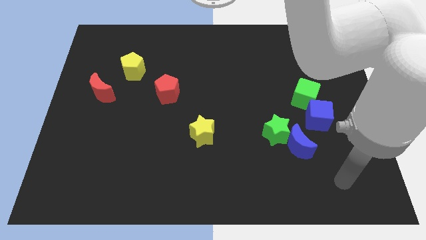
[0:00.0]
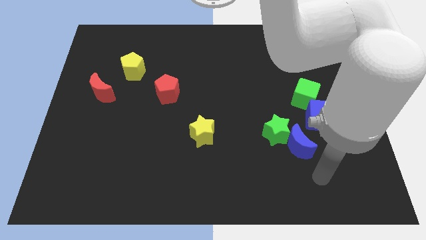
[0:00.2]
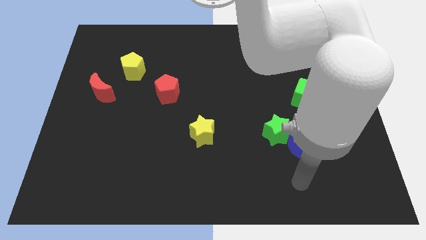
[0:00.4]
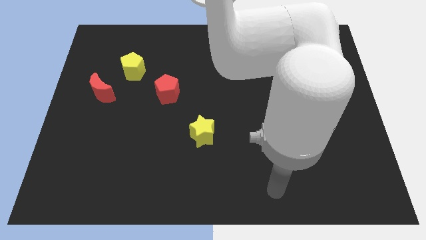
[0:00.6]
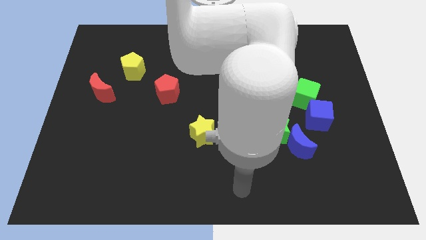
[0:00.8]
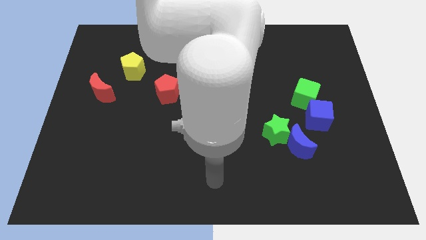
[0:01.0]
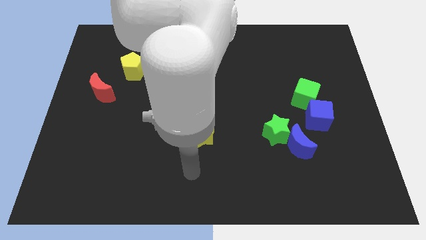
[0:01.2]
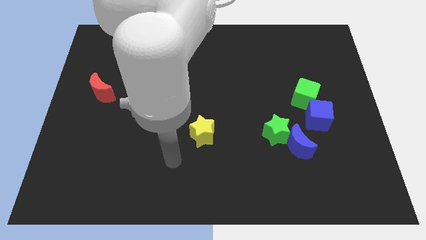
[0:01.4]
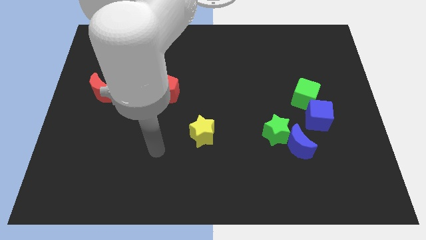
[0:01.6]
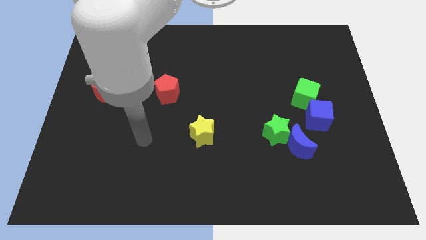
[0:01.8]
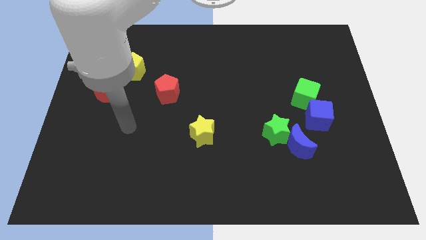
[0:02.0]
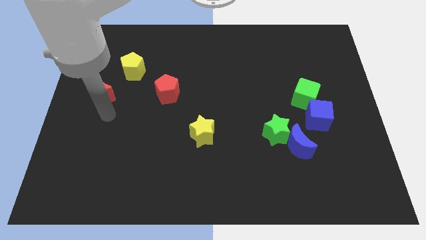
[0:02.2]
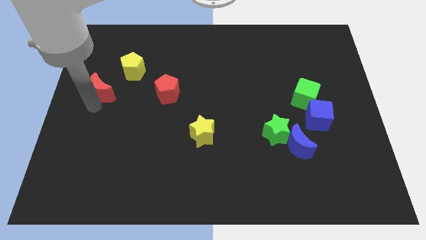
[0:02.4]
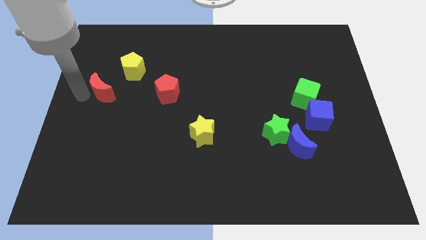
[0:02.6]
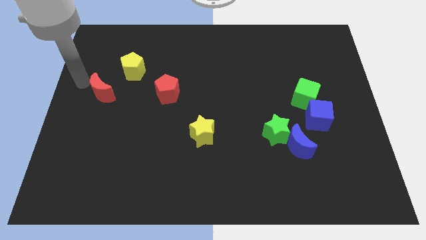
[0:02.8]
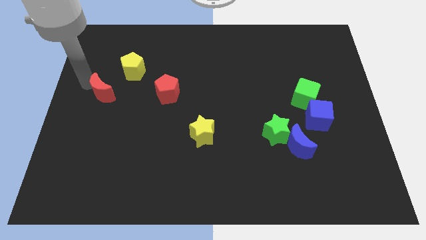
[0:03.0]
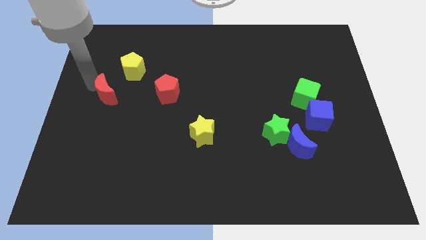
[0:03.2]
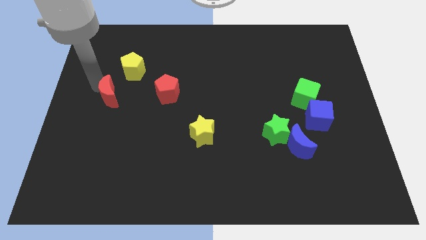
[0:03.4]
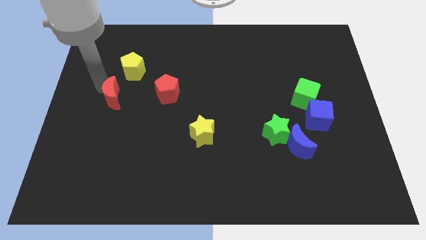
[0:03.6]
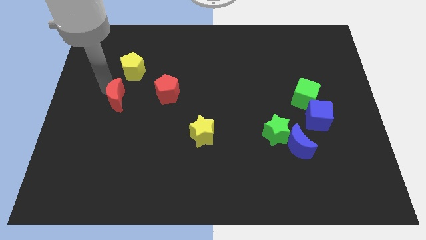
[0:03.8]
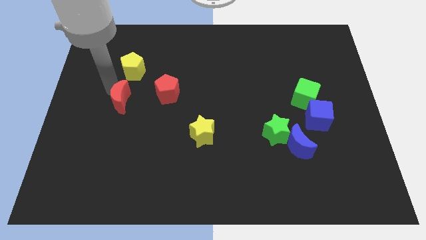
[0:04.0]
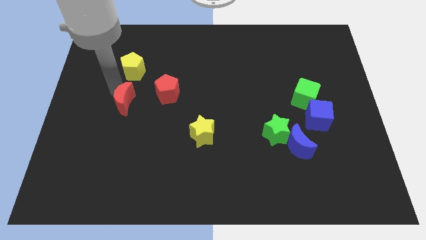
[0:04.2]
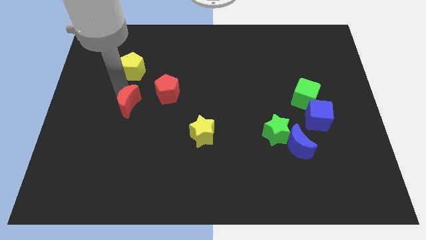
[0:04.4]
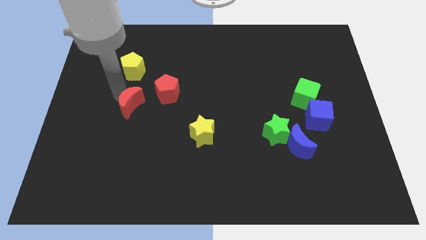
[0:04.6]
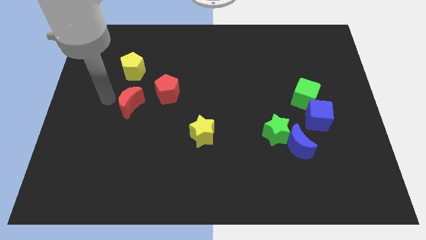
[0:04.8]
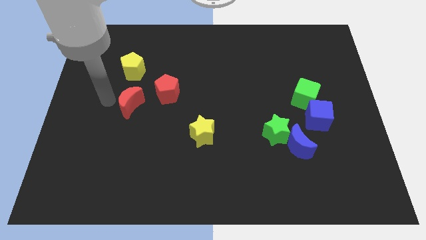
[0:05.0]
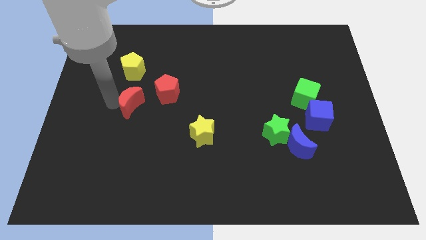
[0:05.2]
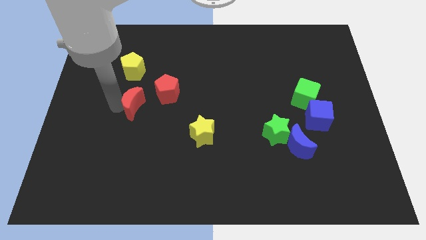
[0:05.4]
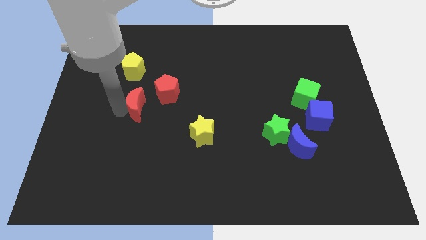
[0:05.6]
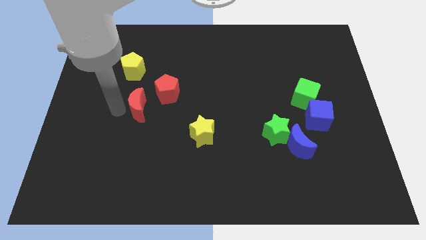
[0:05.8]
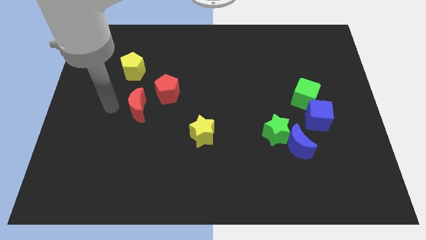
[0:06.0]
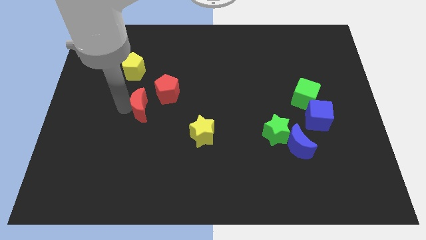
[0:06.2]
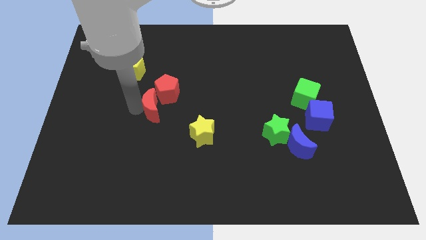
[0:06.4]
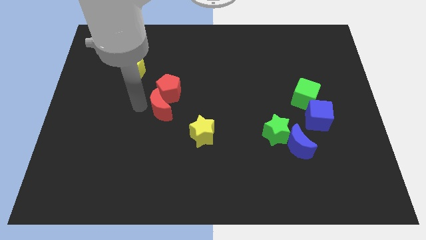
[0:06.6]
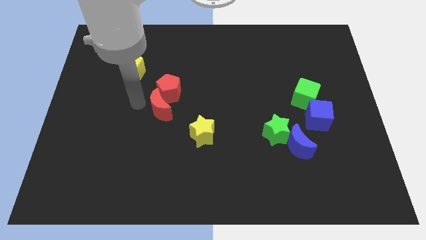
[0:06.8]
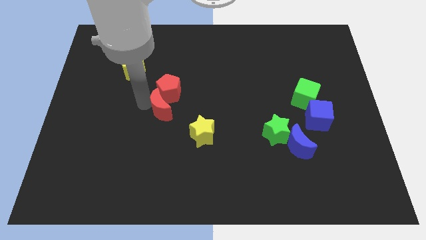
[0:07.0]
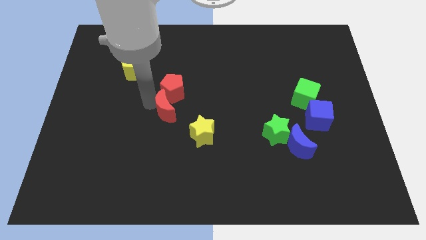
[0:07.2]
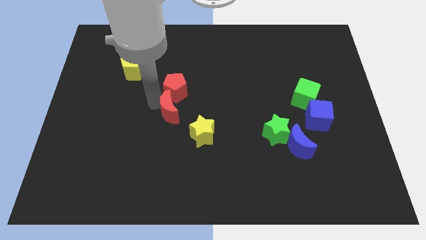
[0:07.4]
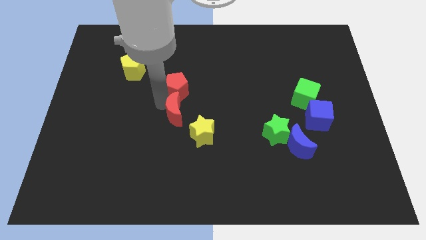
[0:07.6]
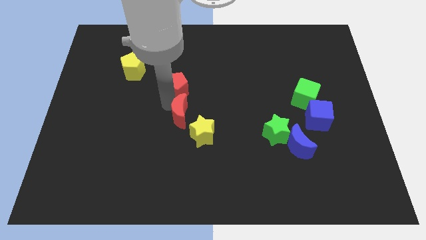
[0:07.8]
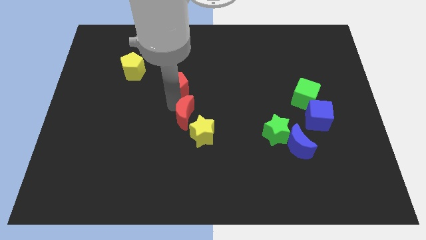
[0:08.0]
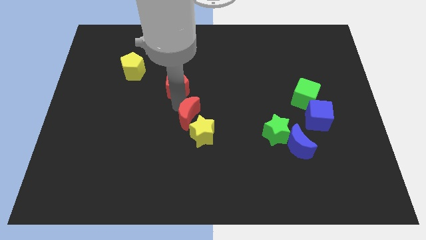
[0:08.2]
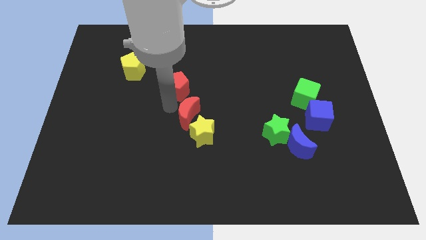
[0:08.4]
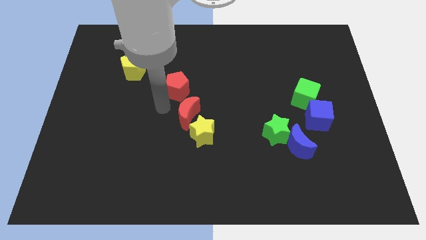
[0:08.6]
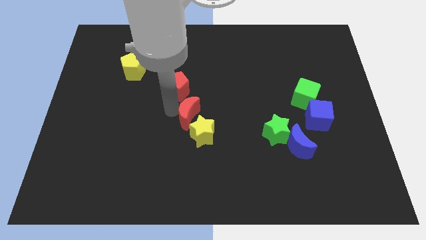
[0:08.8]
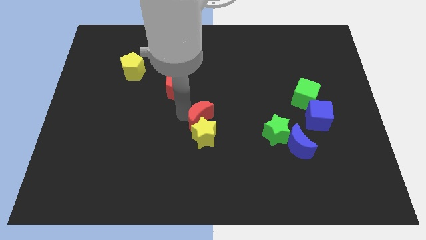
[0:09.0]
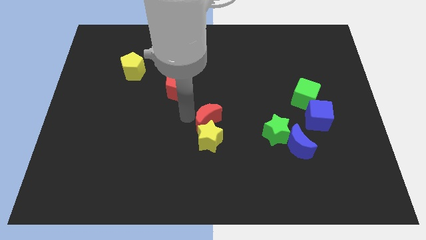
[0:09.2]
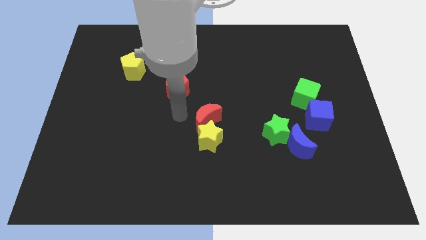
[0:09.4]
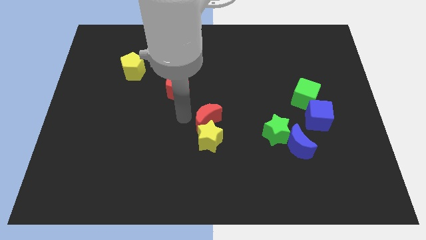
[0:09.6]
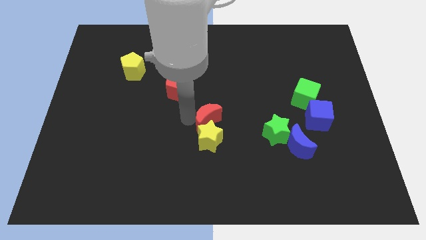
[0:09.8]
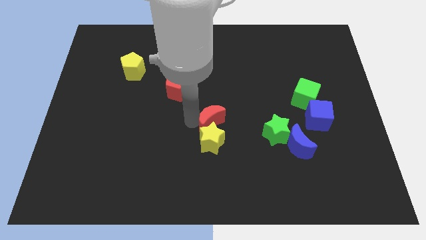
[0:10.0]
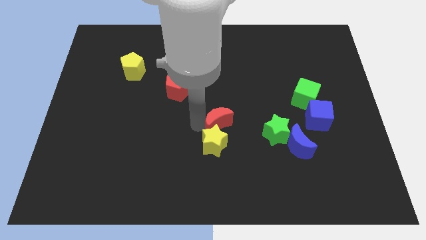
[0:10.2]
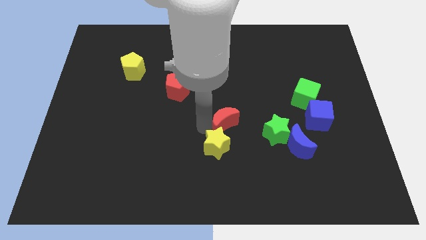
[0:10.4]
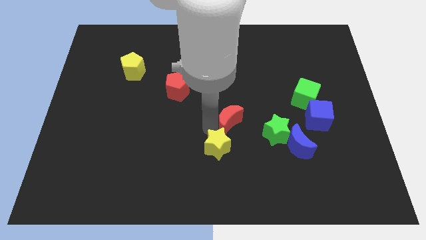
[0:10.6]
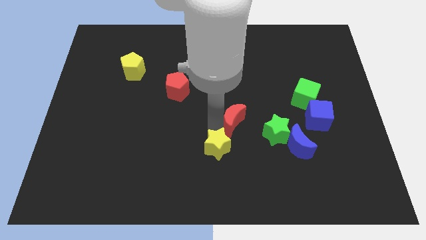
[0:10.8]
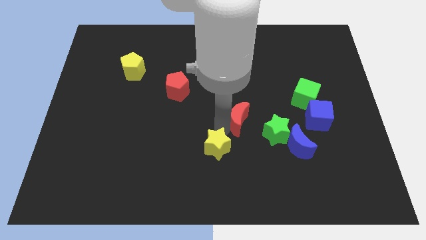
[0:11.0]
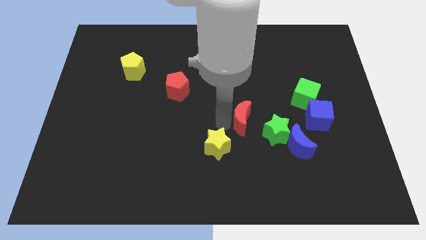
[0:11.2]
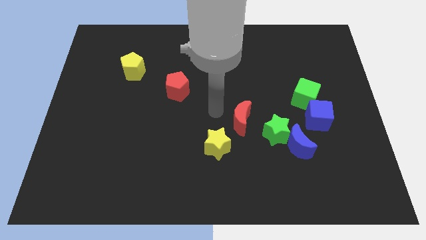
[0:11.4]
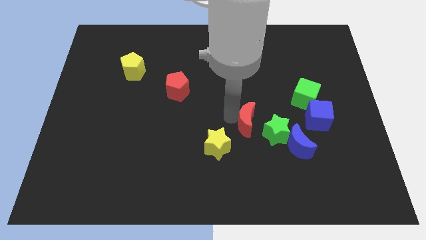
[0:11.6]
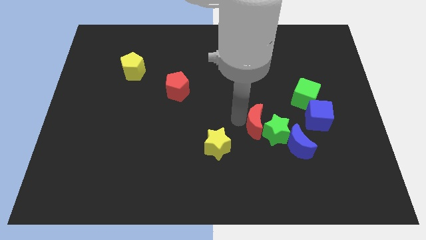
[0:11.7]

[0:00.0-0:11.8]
put the red moon to the green star

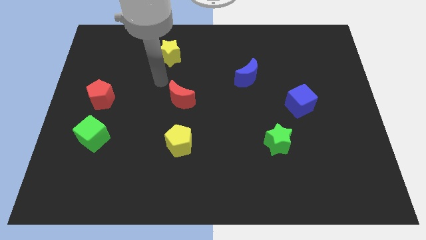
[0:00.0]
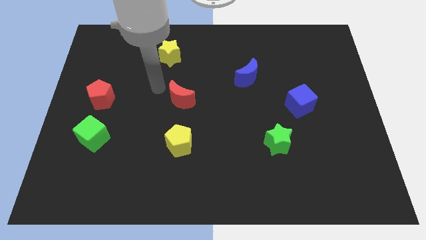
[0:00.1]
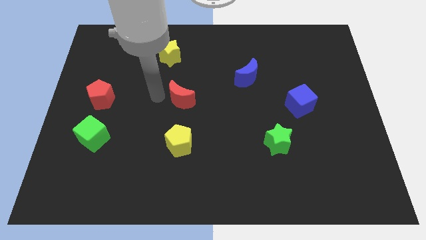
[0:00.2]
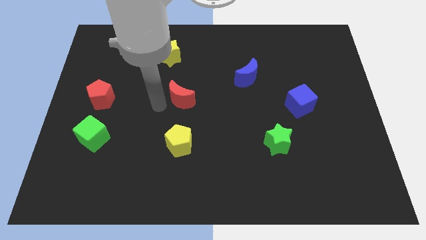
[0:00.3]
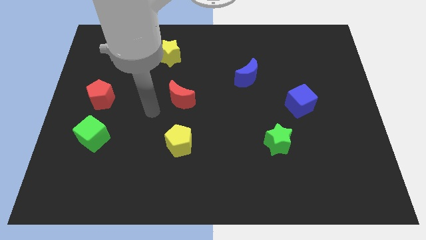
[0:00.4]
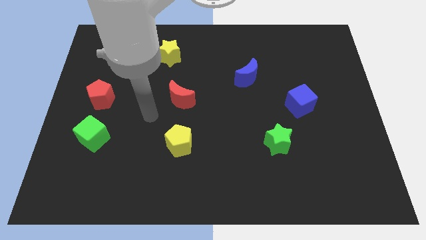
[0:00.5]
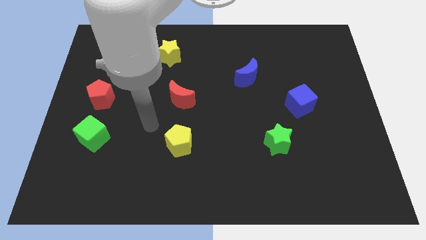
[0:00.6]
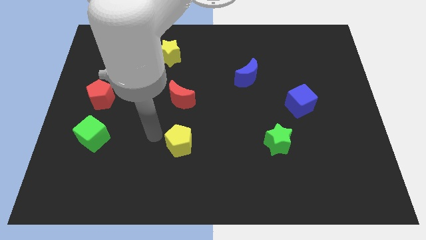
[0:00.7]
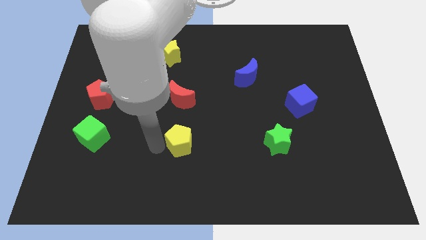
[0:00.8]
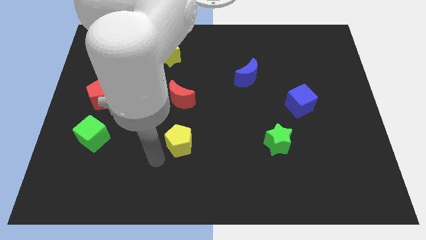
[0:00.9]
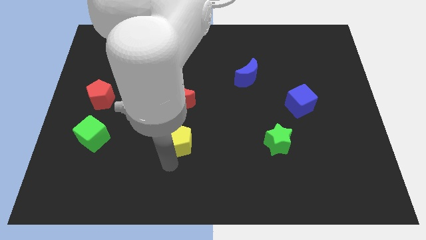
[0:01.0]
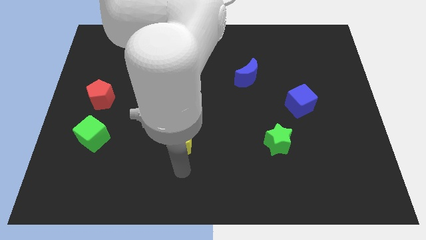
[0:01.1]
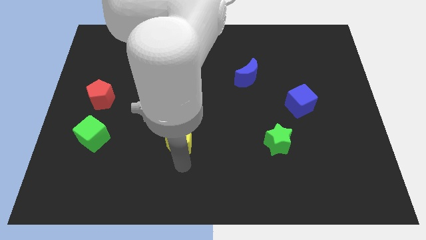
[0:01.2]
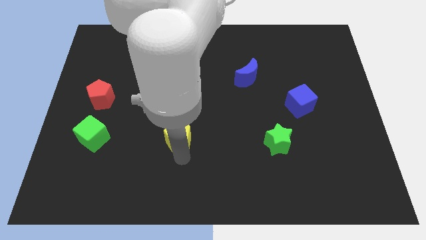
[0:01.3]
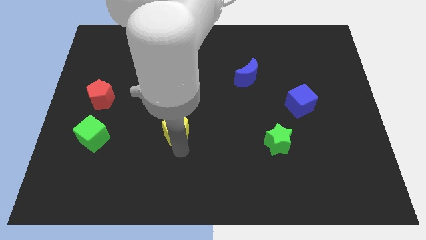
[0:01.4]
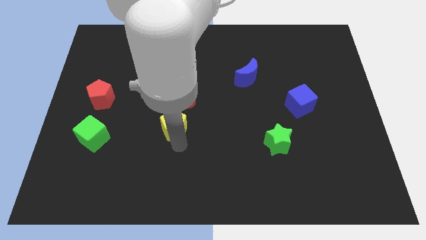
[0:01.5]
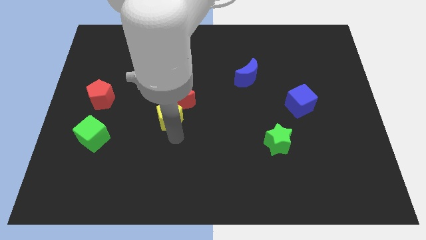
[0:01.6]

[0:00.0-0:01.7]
move the yellow pentagon next to the red moon
